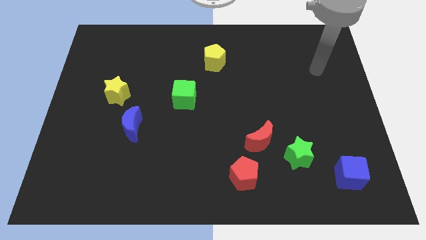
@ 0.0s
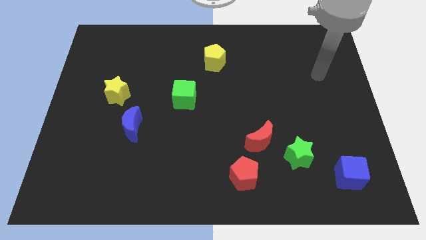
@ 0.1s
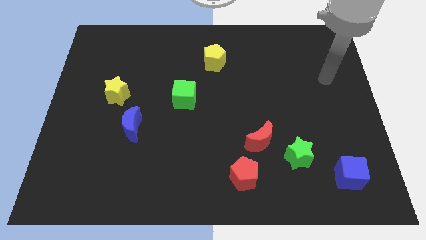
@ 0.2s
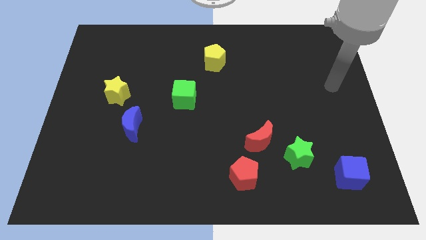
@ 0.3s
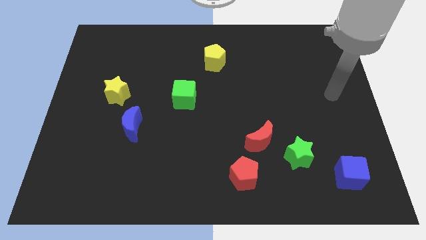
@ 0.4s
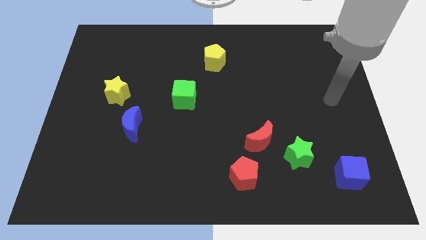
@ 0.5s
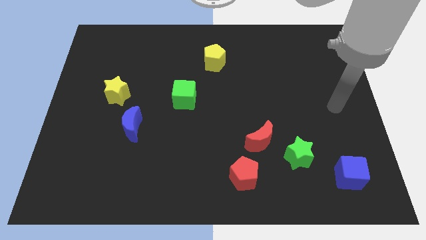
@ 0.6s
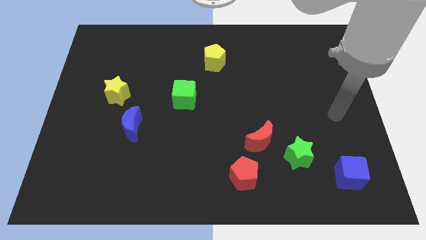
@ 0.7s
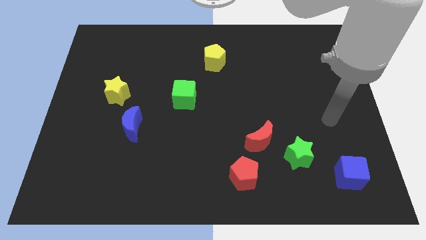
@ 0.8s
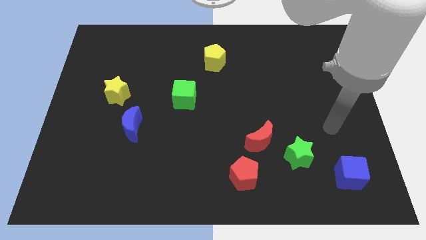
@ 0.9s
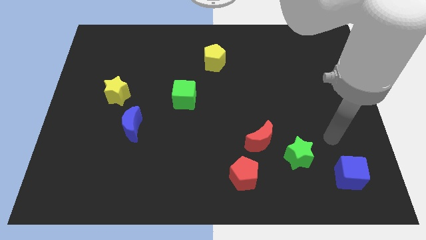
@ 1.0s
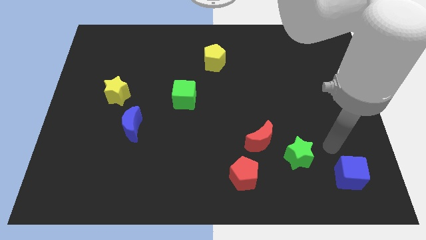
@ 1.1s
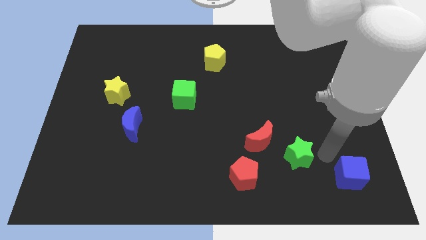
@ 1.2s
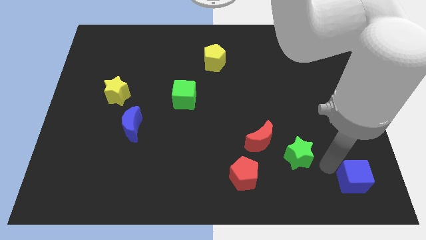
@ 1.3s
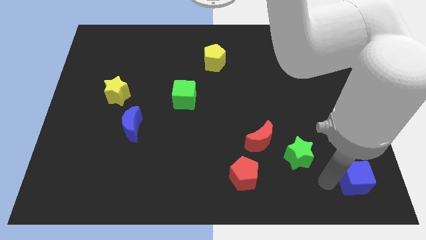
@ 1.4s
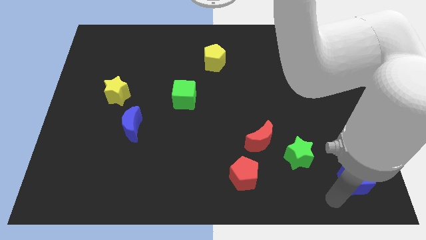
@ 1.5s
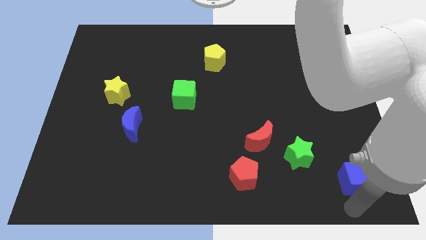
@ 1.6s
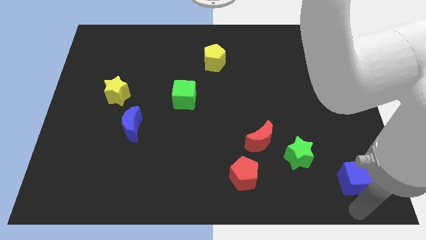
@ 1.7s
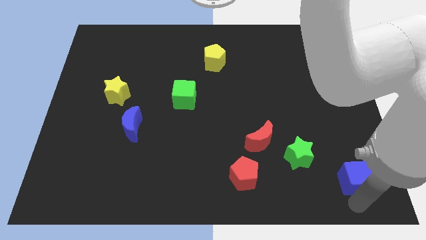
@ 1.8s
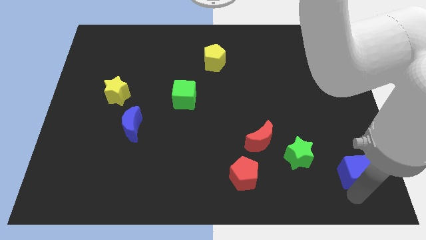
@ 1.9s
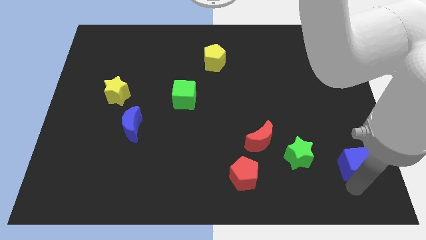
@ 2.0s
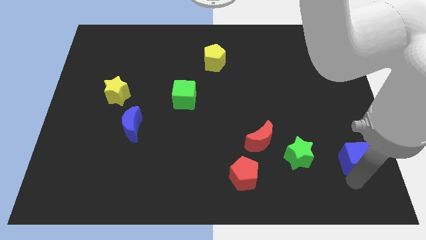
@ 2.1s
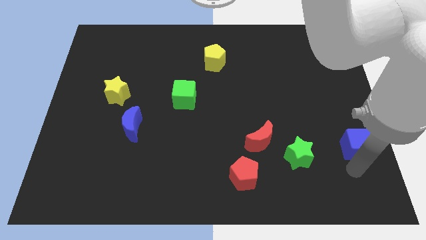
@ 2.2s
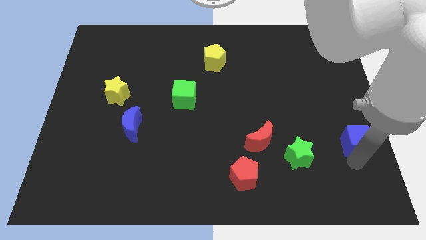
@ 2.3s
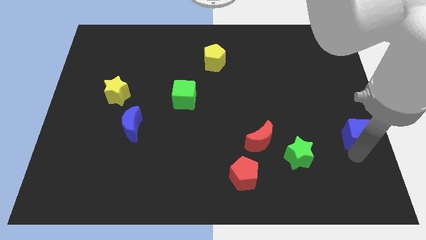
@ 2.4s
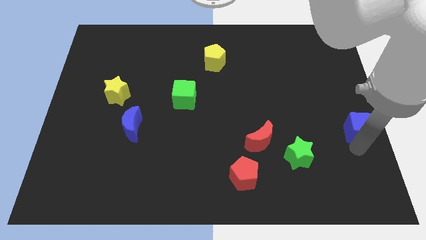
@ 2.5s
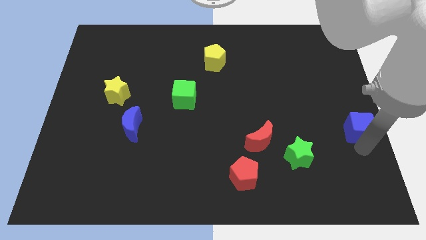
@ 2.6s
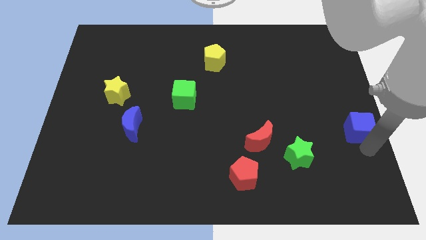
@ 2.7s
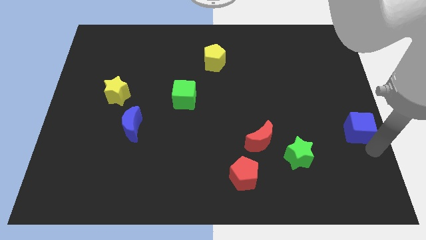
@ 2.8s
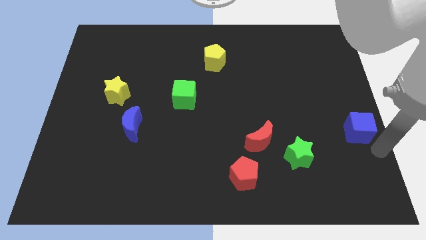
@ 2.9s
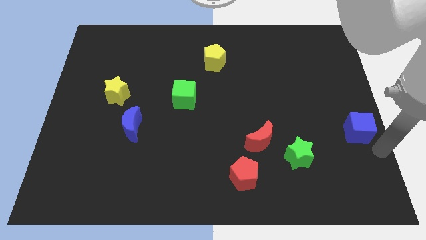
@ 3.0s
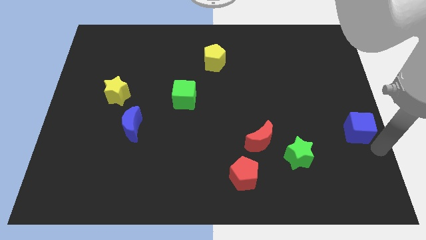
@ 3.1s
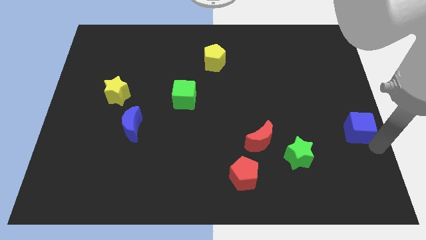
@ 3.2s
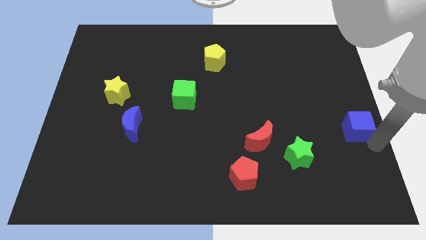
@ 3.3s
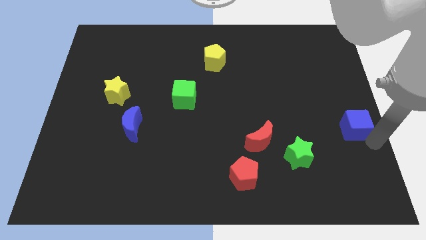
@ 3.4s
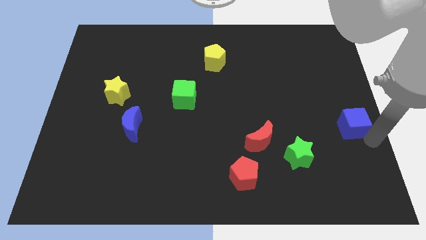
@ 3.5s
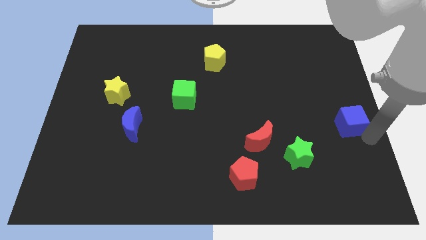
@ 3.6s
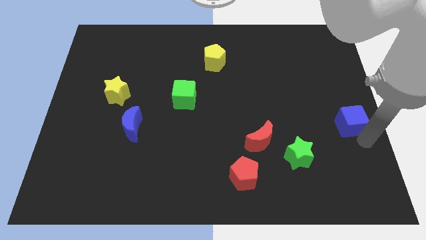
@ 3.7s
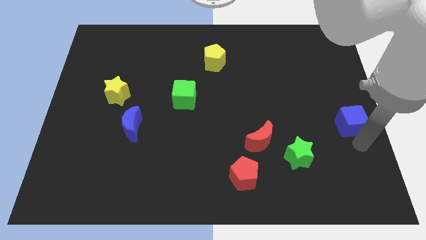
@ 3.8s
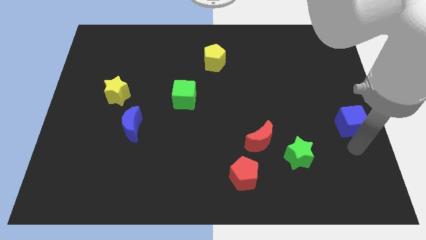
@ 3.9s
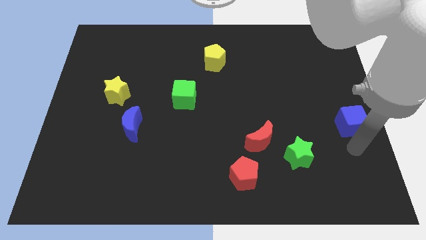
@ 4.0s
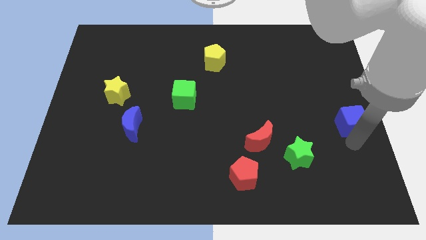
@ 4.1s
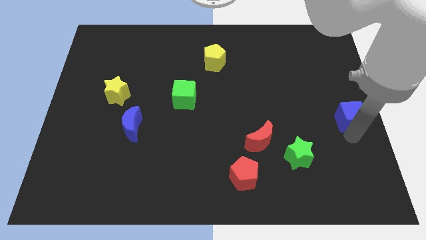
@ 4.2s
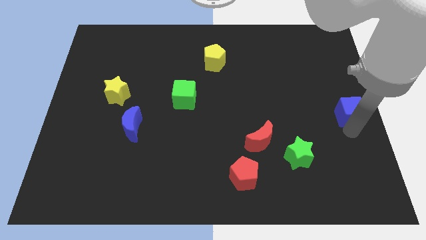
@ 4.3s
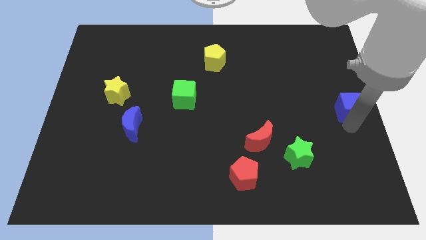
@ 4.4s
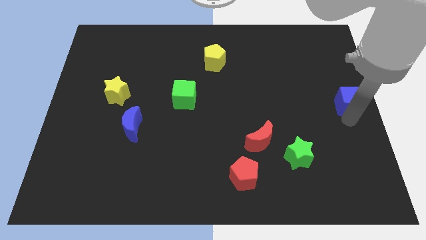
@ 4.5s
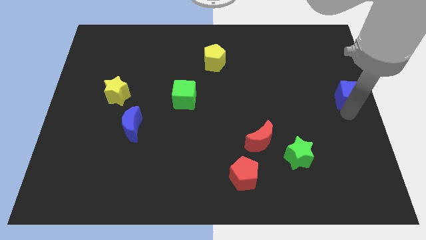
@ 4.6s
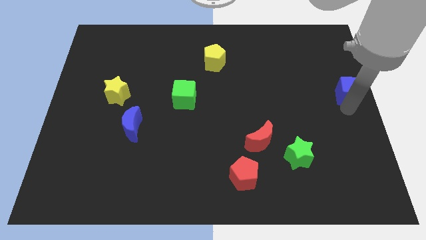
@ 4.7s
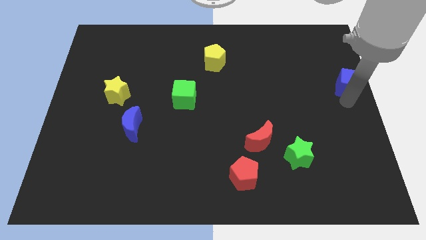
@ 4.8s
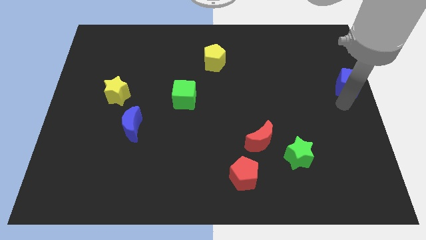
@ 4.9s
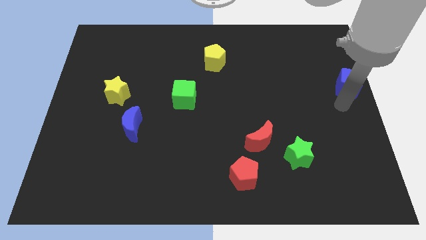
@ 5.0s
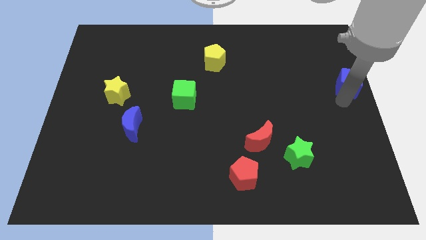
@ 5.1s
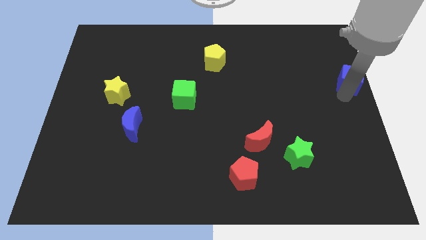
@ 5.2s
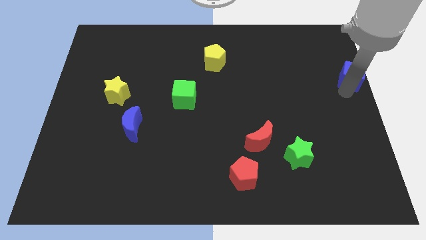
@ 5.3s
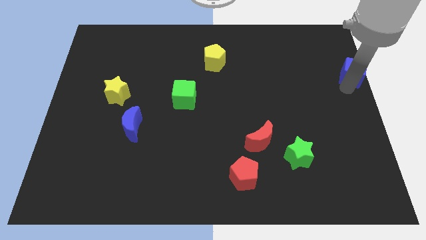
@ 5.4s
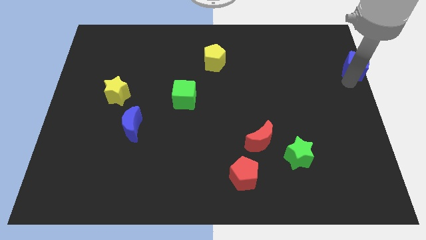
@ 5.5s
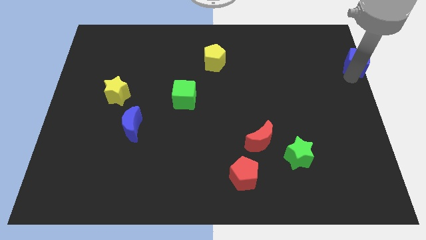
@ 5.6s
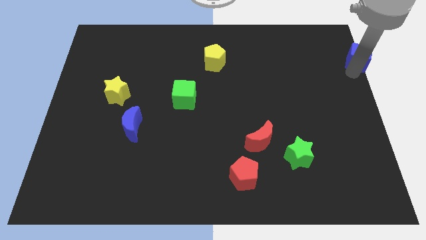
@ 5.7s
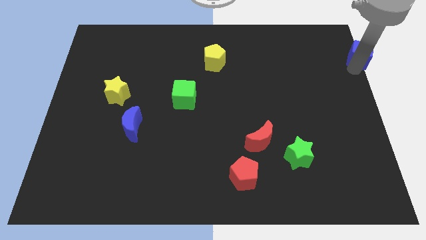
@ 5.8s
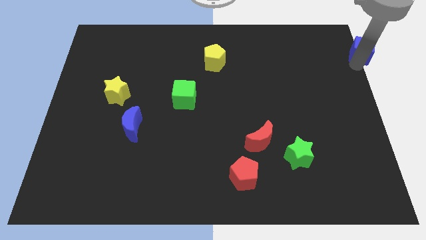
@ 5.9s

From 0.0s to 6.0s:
push the blue cube to the top right

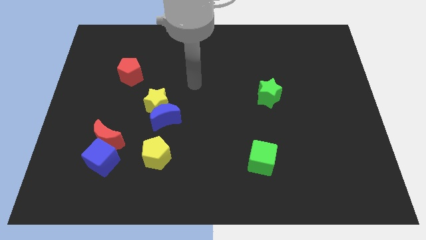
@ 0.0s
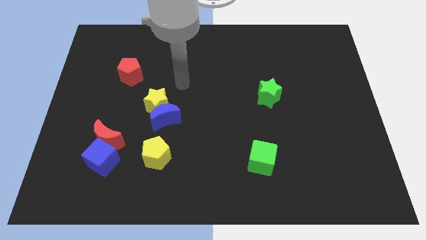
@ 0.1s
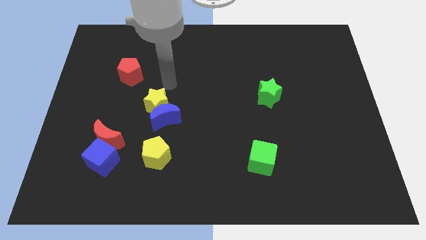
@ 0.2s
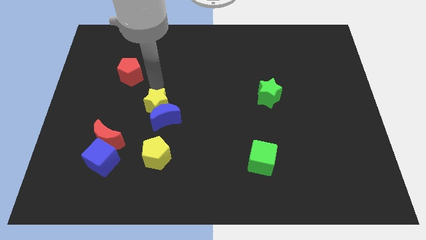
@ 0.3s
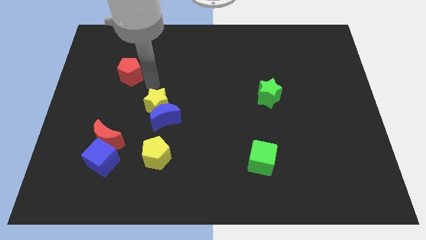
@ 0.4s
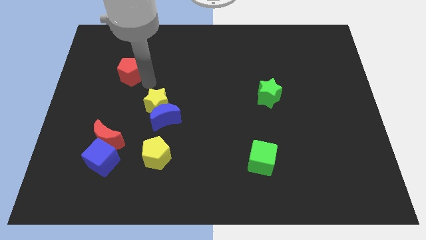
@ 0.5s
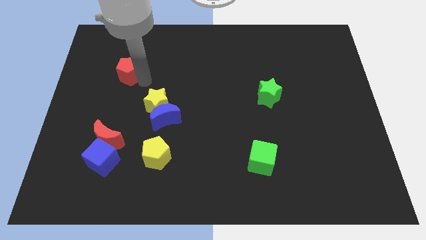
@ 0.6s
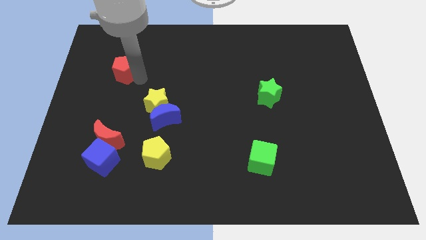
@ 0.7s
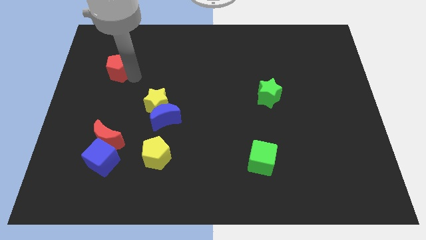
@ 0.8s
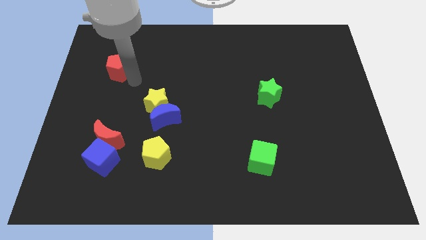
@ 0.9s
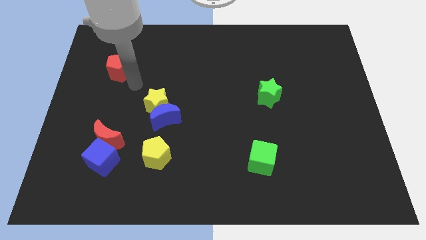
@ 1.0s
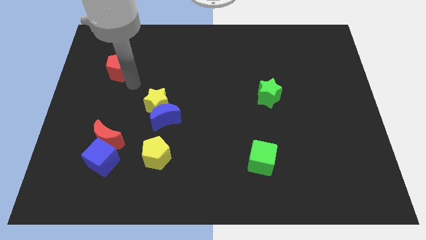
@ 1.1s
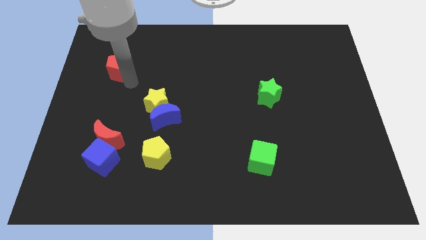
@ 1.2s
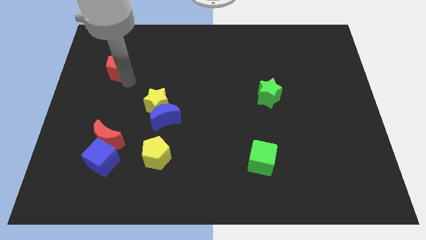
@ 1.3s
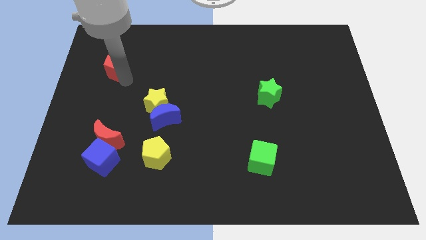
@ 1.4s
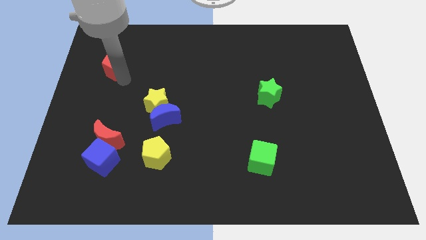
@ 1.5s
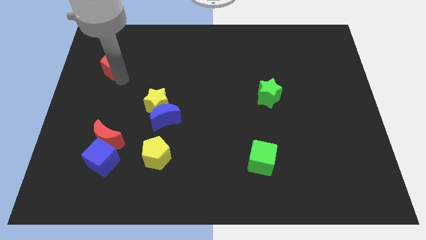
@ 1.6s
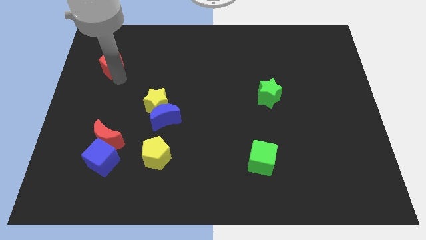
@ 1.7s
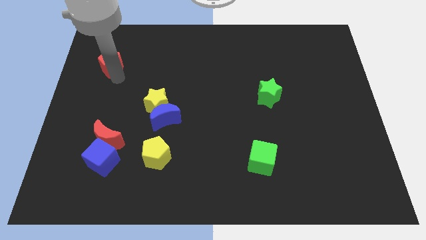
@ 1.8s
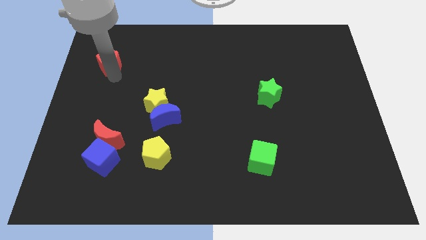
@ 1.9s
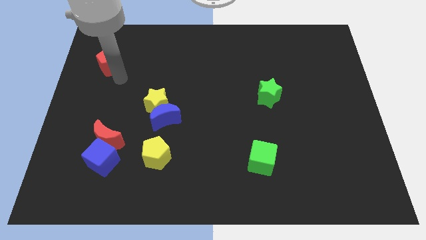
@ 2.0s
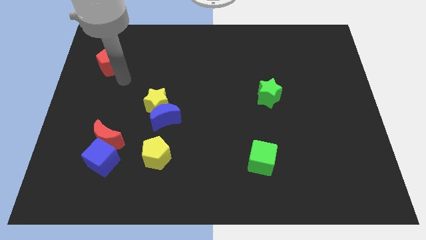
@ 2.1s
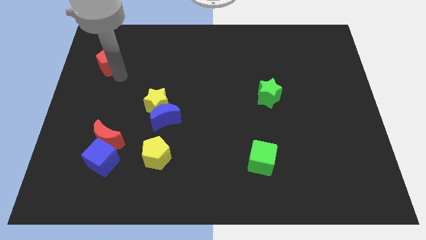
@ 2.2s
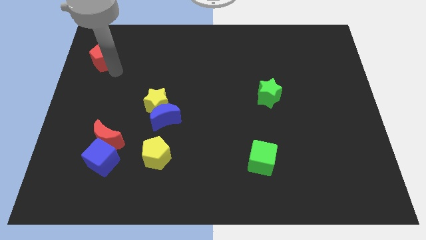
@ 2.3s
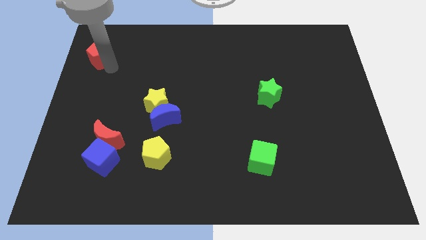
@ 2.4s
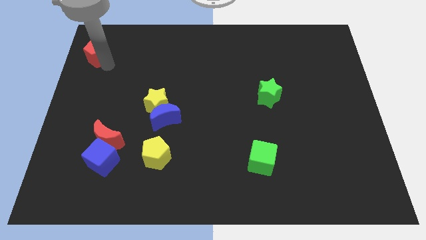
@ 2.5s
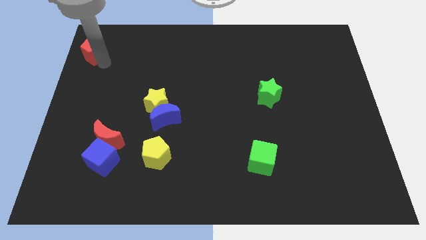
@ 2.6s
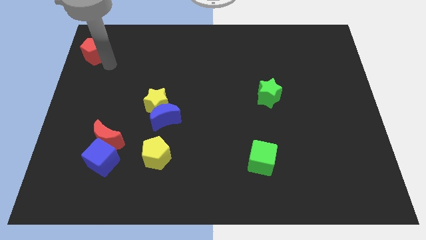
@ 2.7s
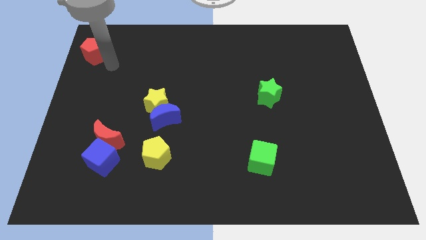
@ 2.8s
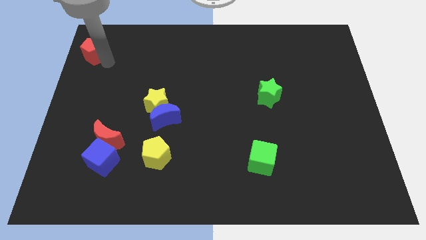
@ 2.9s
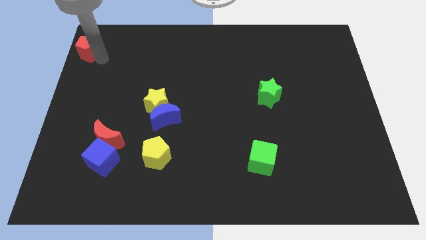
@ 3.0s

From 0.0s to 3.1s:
slide the red pentagon to the upper left corner
